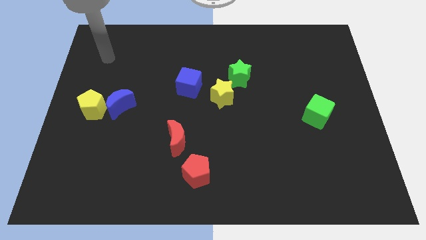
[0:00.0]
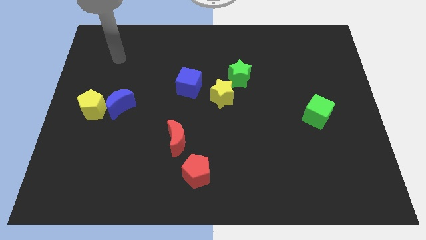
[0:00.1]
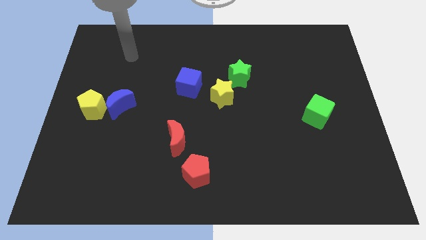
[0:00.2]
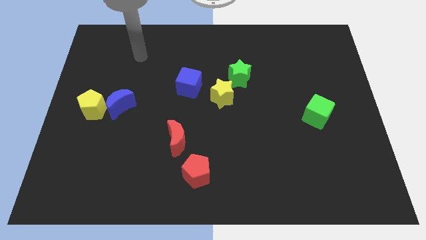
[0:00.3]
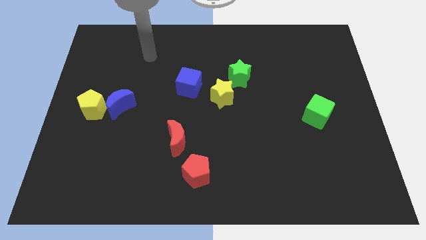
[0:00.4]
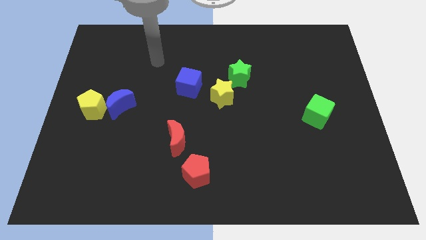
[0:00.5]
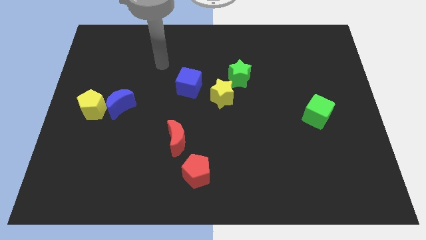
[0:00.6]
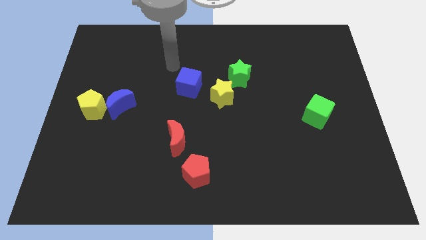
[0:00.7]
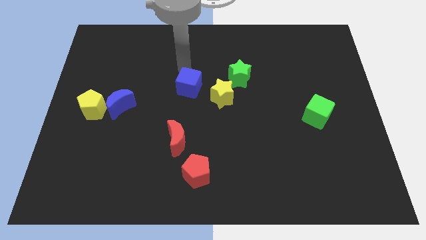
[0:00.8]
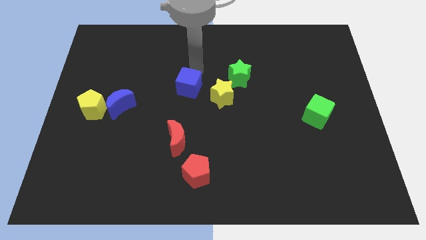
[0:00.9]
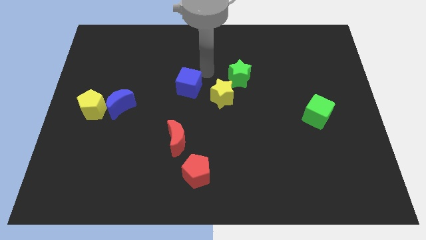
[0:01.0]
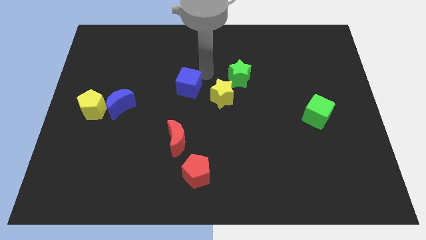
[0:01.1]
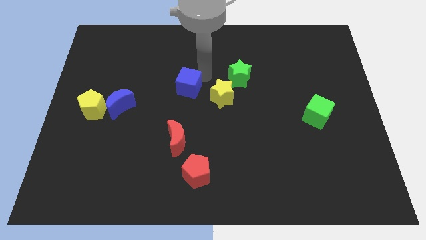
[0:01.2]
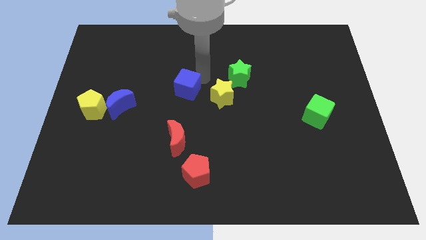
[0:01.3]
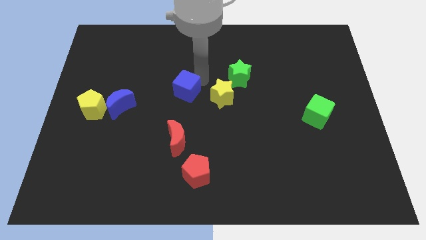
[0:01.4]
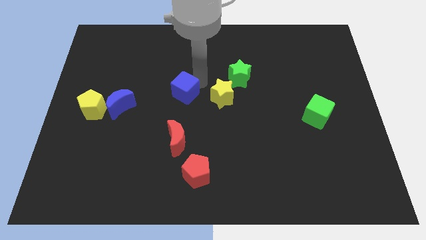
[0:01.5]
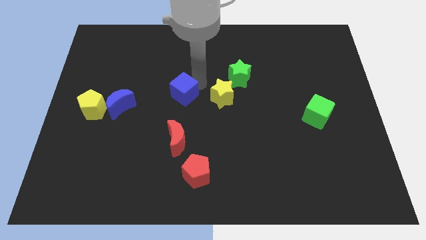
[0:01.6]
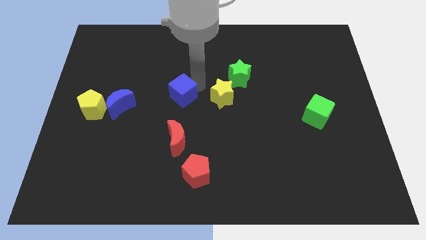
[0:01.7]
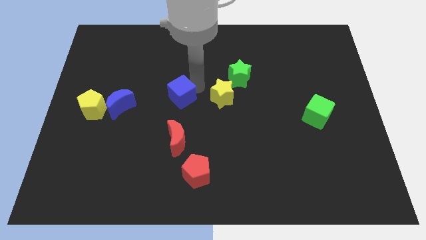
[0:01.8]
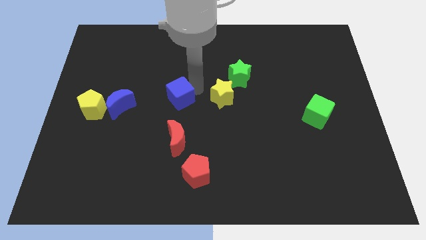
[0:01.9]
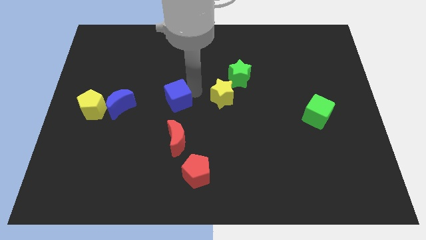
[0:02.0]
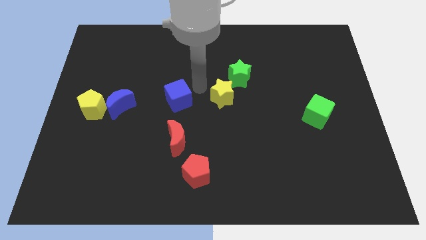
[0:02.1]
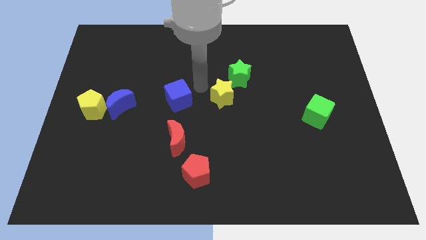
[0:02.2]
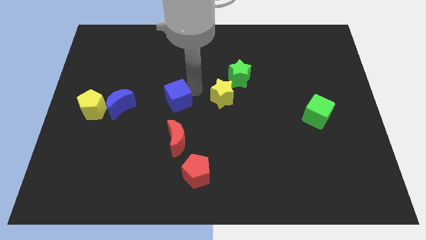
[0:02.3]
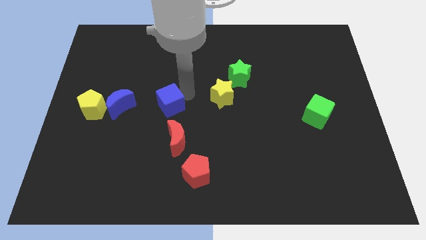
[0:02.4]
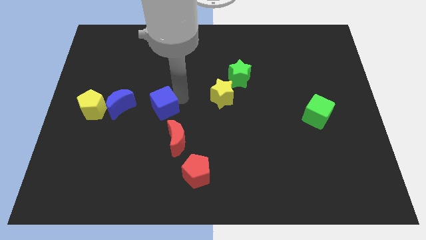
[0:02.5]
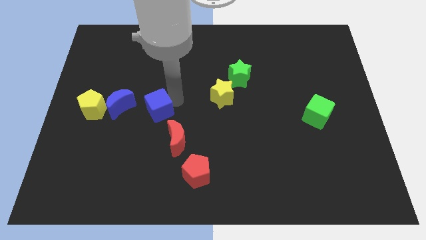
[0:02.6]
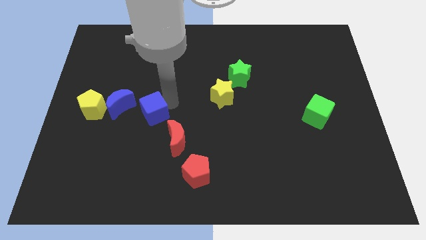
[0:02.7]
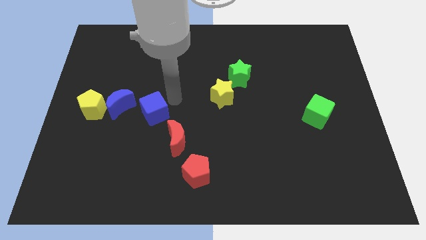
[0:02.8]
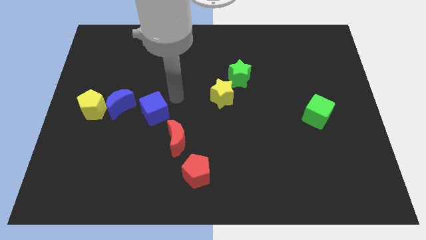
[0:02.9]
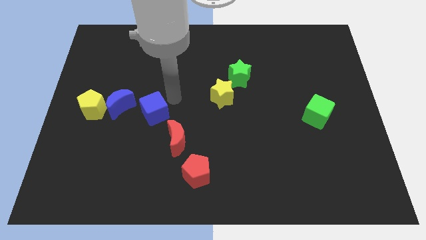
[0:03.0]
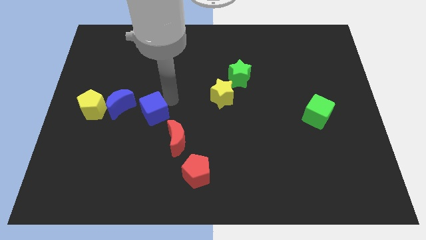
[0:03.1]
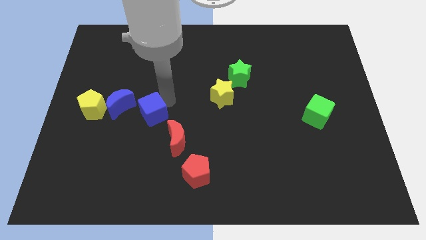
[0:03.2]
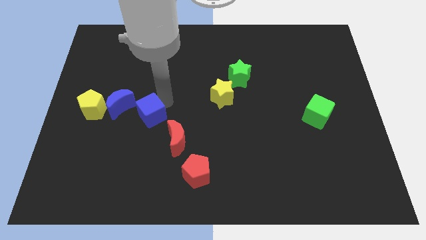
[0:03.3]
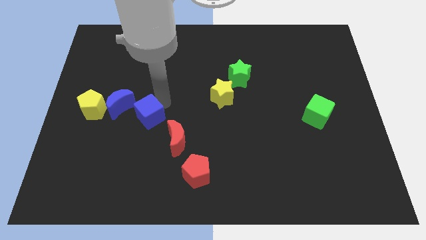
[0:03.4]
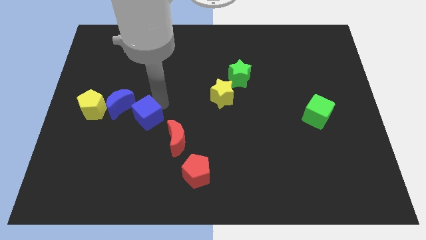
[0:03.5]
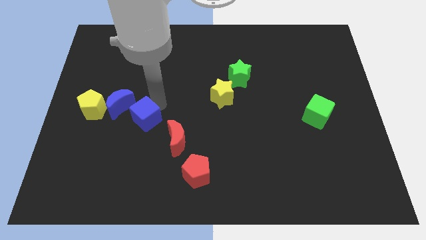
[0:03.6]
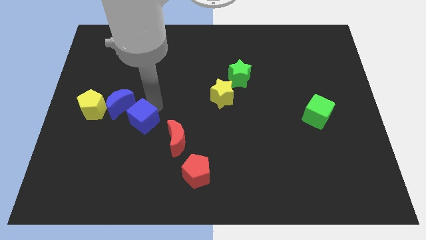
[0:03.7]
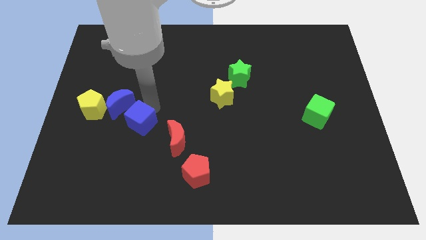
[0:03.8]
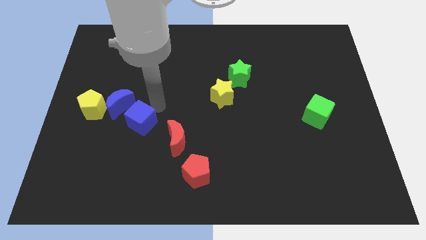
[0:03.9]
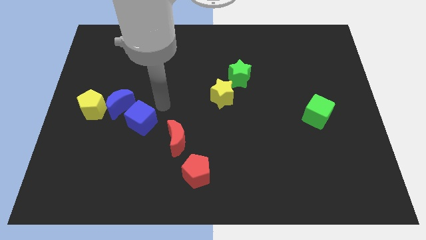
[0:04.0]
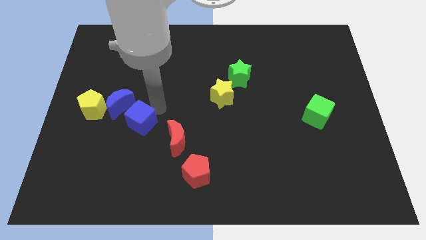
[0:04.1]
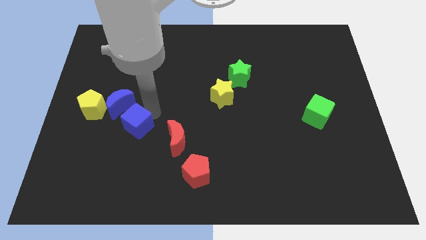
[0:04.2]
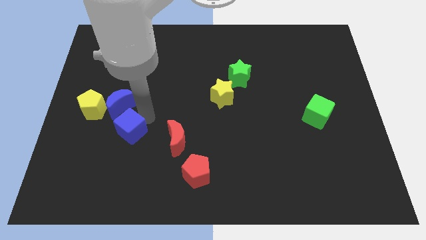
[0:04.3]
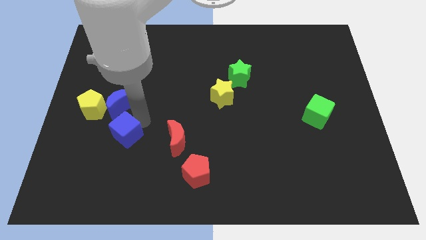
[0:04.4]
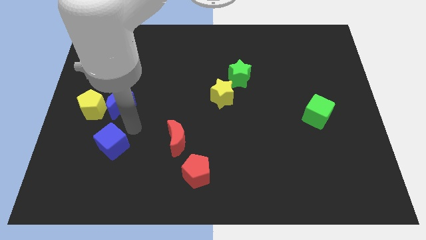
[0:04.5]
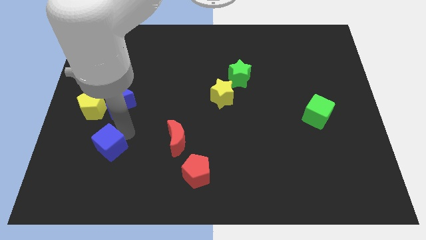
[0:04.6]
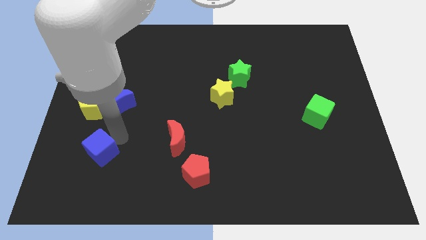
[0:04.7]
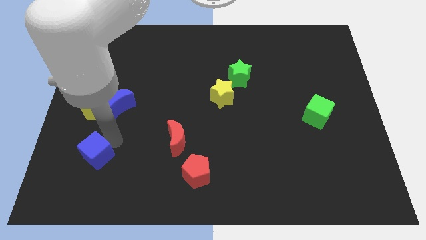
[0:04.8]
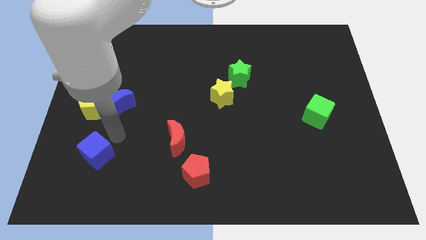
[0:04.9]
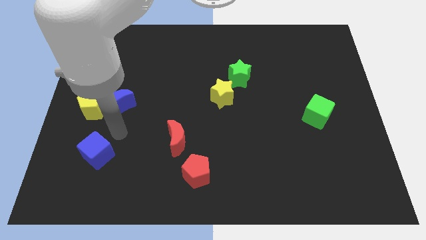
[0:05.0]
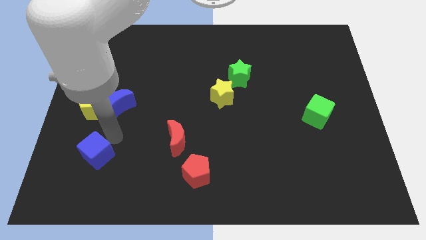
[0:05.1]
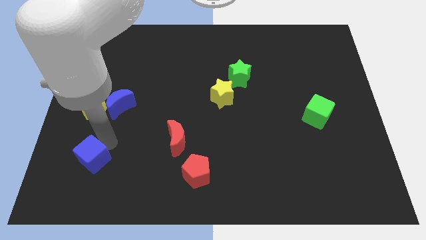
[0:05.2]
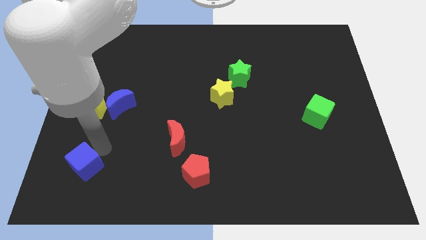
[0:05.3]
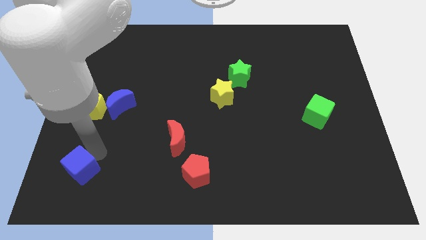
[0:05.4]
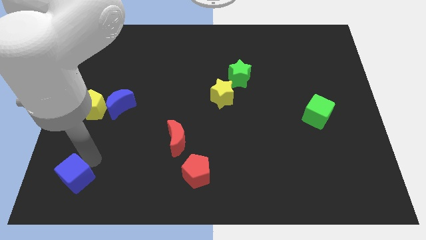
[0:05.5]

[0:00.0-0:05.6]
put the blue cube to the lower left corner

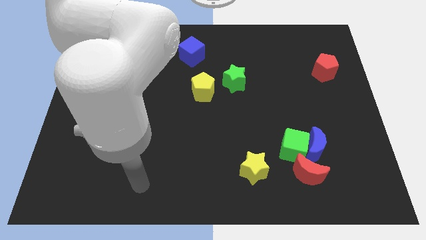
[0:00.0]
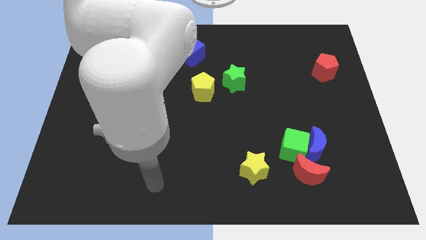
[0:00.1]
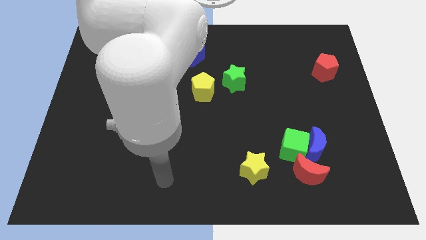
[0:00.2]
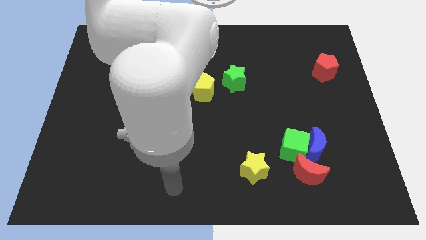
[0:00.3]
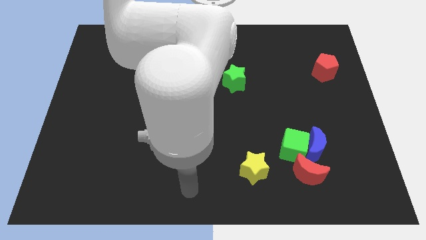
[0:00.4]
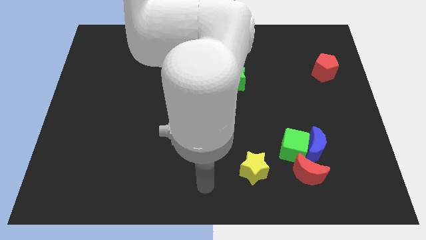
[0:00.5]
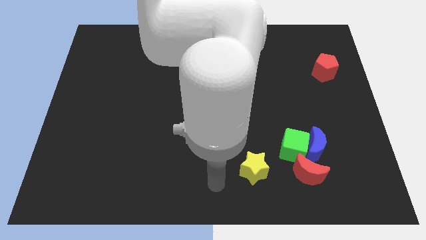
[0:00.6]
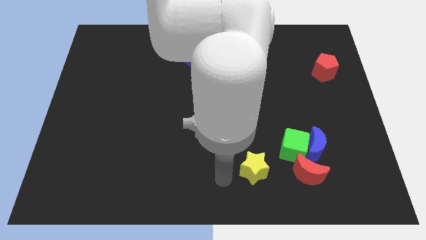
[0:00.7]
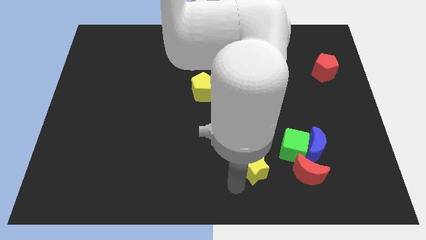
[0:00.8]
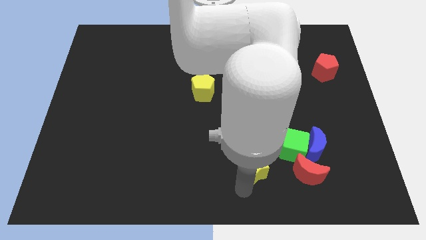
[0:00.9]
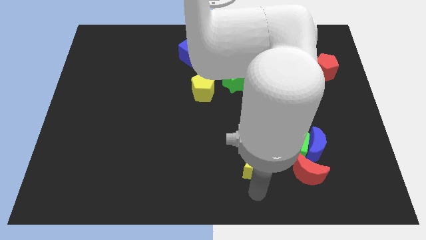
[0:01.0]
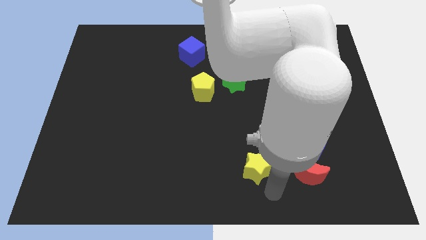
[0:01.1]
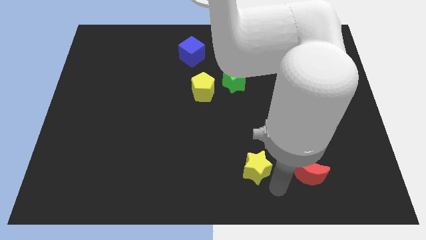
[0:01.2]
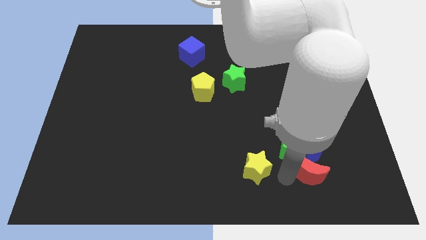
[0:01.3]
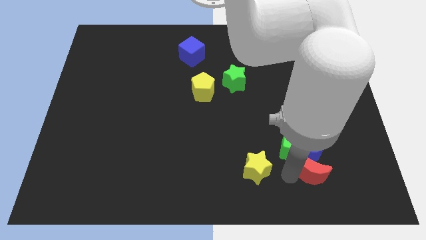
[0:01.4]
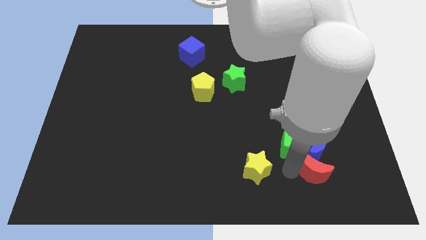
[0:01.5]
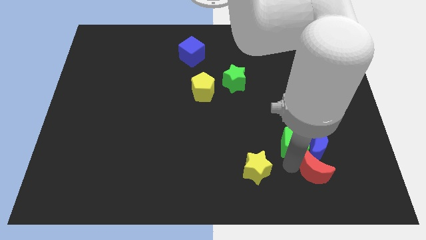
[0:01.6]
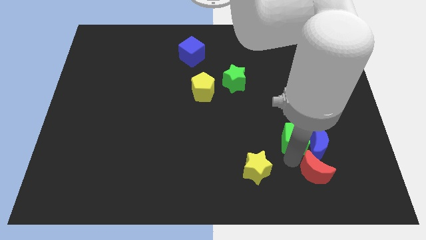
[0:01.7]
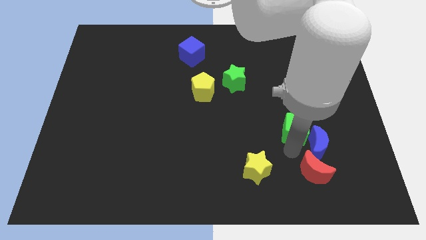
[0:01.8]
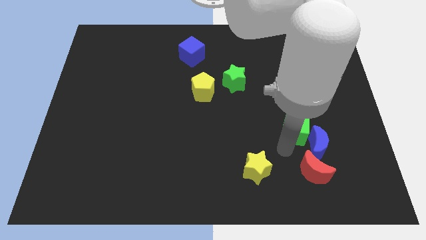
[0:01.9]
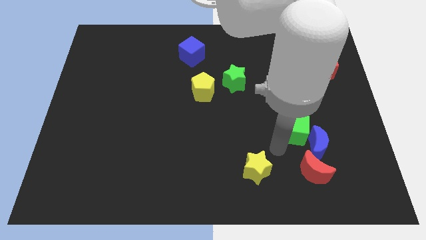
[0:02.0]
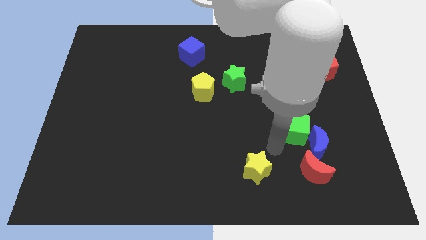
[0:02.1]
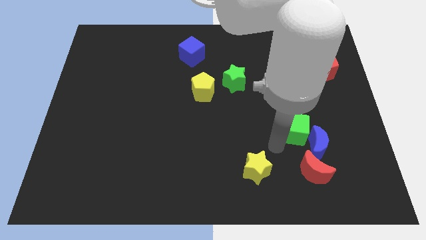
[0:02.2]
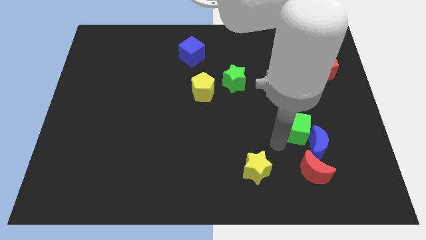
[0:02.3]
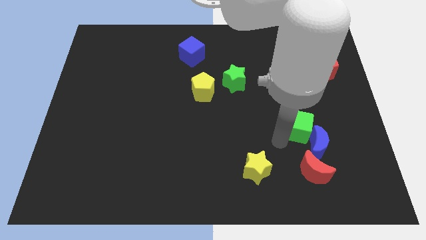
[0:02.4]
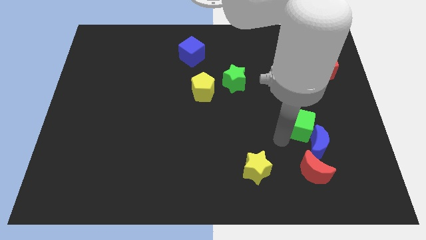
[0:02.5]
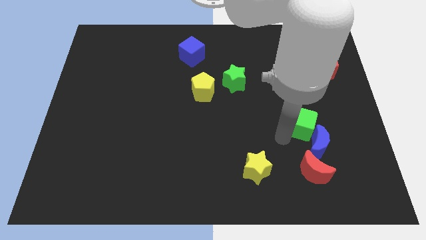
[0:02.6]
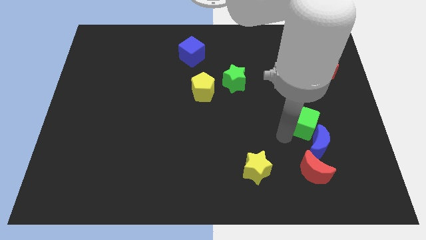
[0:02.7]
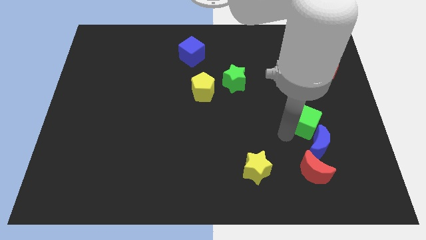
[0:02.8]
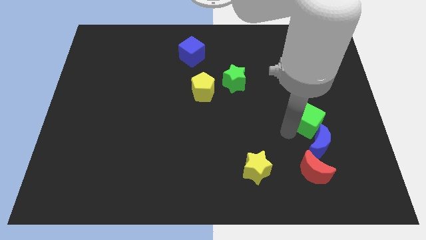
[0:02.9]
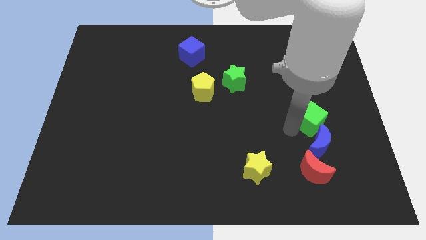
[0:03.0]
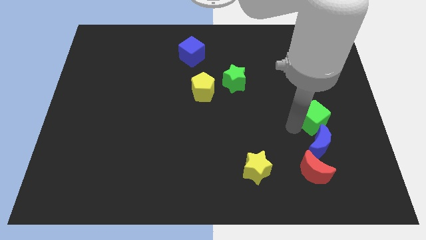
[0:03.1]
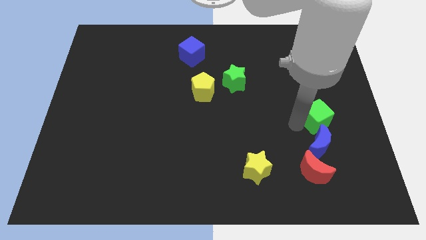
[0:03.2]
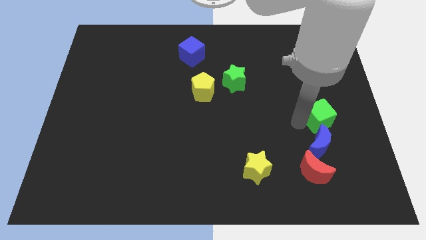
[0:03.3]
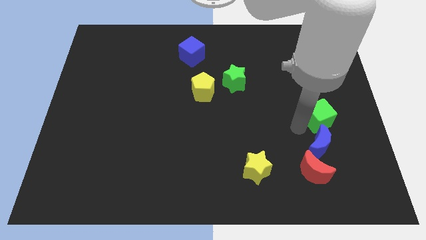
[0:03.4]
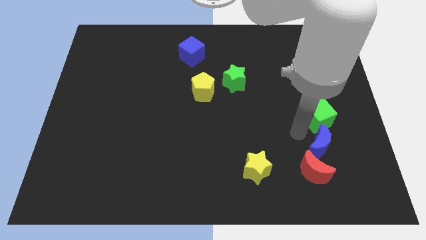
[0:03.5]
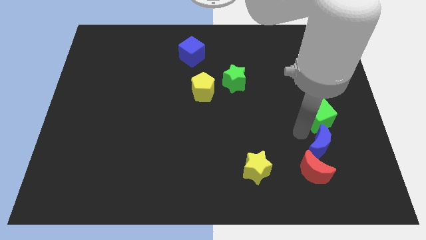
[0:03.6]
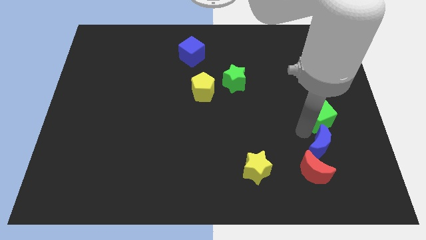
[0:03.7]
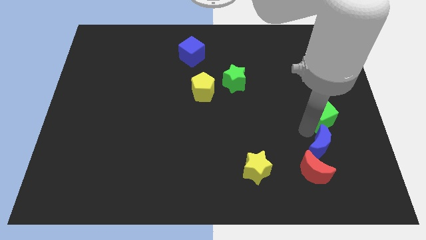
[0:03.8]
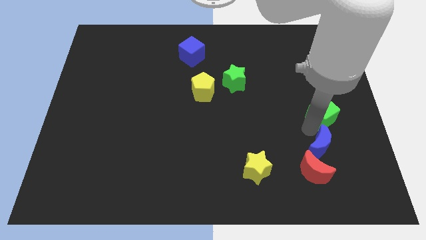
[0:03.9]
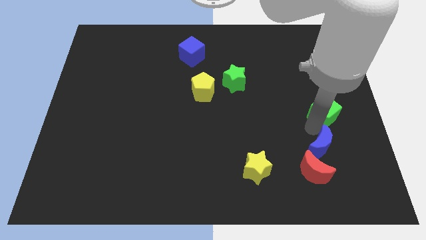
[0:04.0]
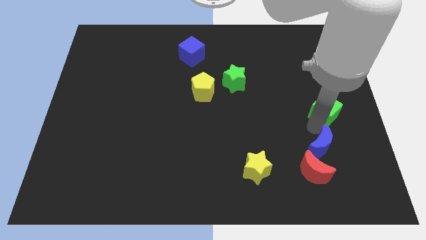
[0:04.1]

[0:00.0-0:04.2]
push the green cube to the right side of the board
